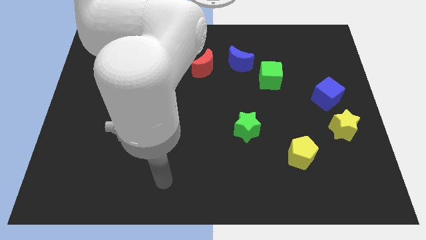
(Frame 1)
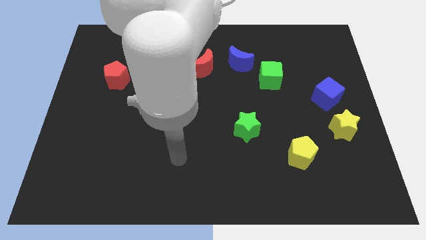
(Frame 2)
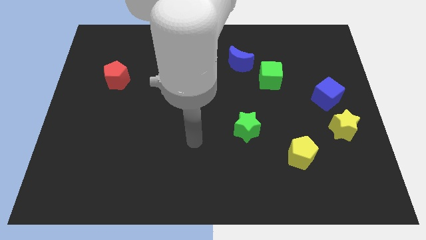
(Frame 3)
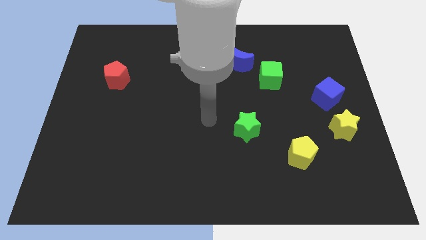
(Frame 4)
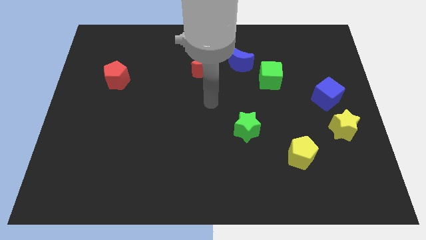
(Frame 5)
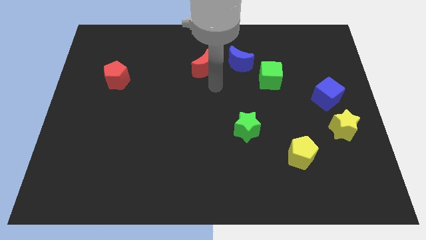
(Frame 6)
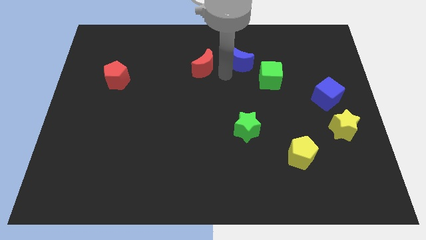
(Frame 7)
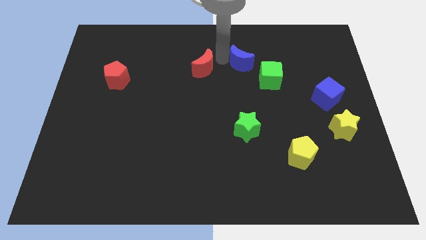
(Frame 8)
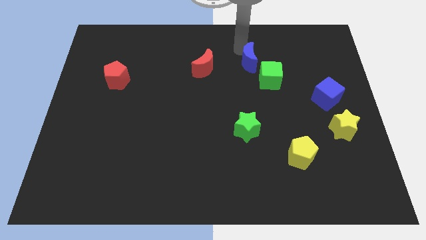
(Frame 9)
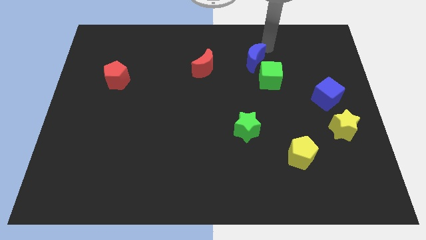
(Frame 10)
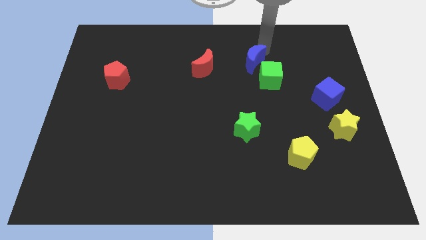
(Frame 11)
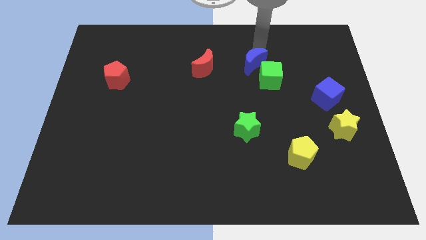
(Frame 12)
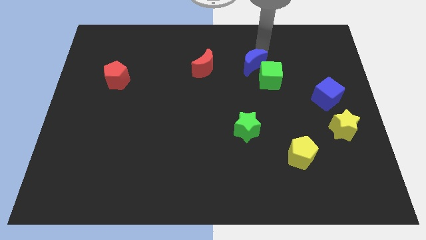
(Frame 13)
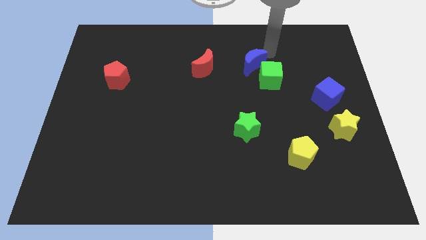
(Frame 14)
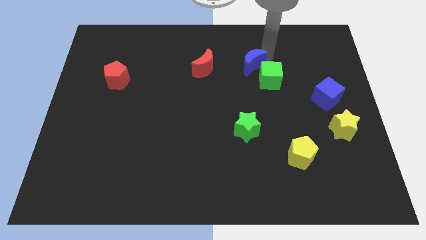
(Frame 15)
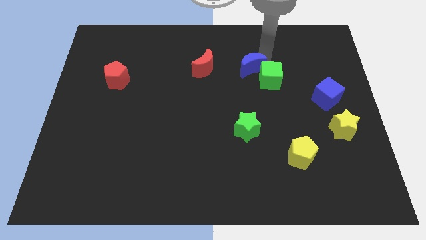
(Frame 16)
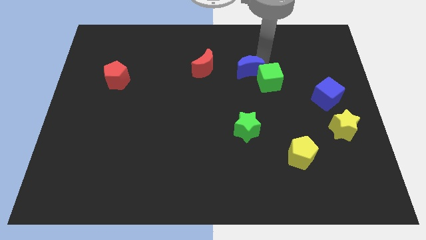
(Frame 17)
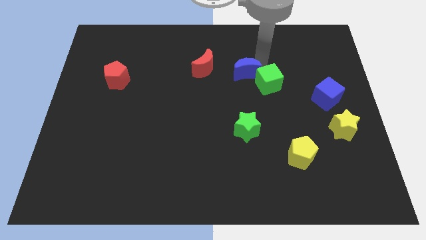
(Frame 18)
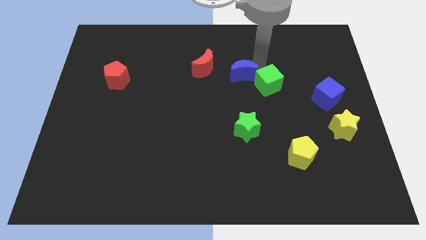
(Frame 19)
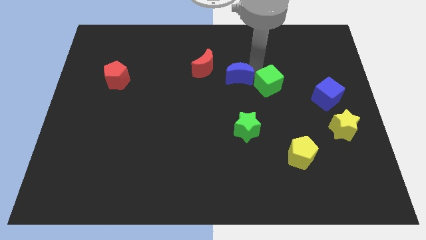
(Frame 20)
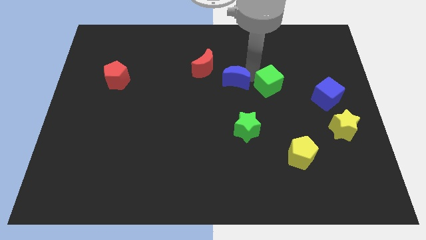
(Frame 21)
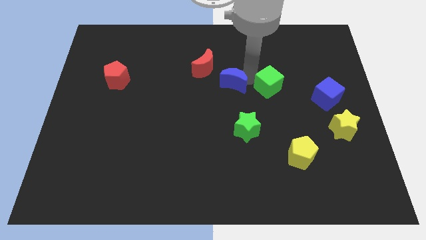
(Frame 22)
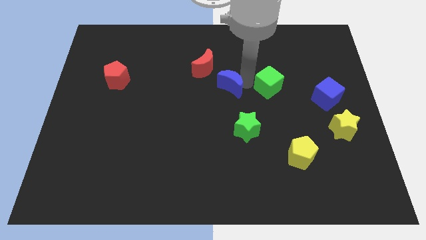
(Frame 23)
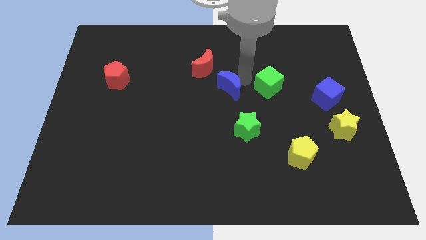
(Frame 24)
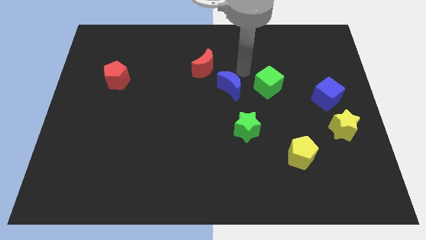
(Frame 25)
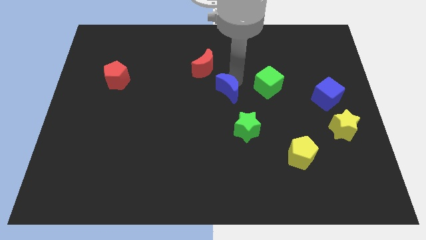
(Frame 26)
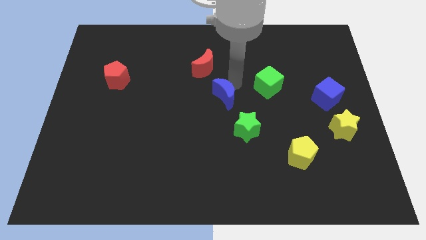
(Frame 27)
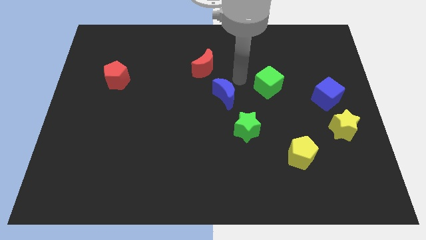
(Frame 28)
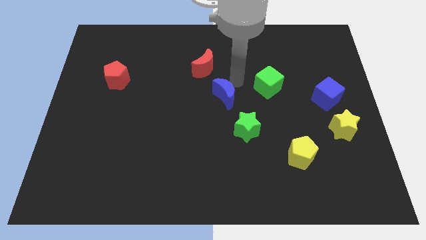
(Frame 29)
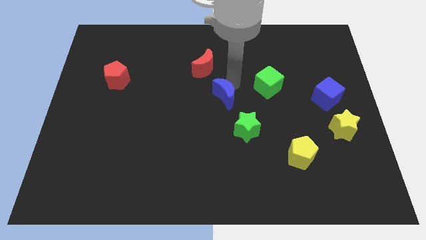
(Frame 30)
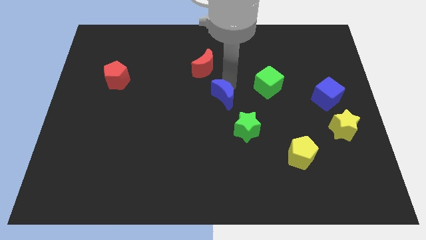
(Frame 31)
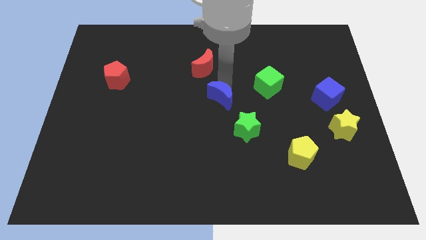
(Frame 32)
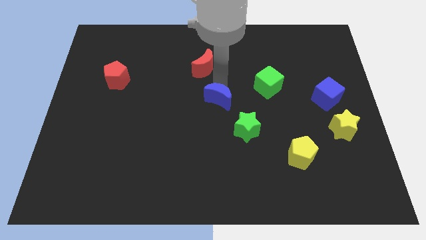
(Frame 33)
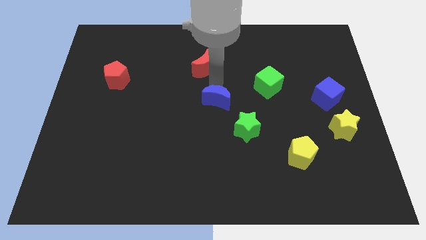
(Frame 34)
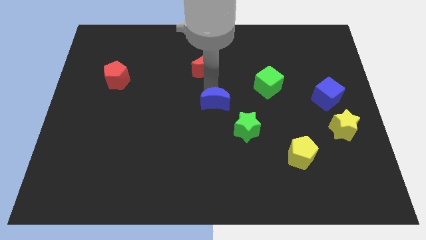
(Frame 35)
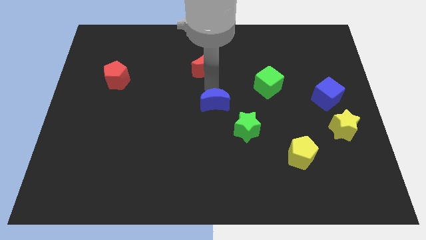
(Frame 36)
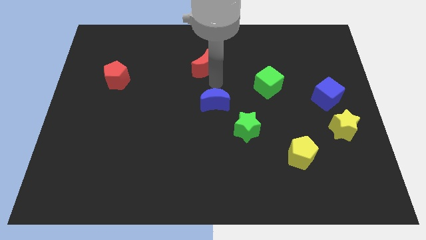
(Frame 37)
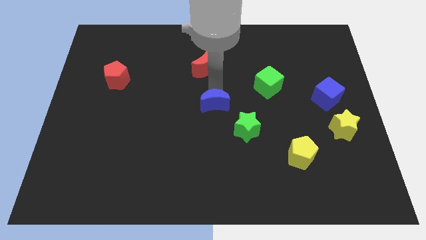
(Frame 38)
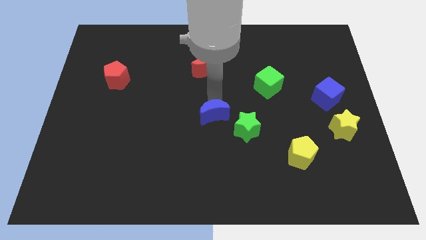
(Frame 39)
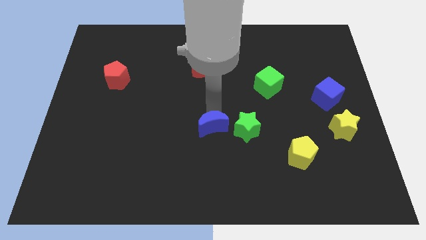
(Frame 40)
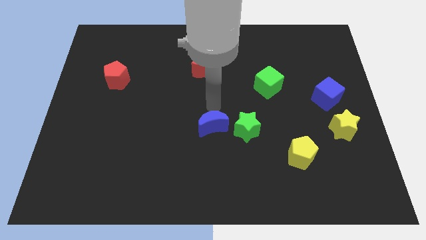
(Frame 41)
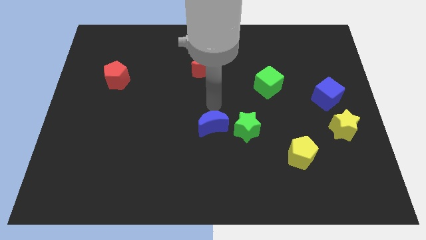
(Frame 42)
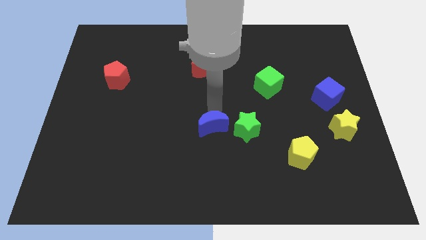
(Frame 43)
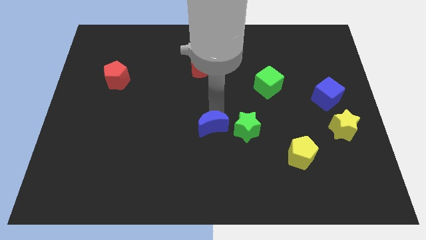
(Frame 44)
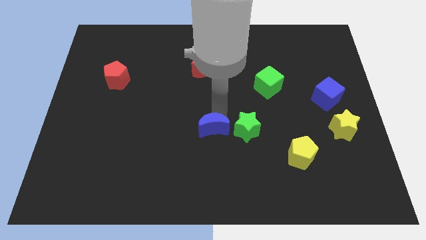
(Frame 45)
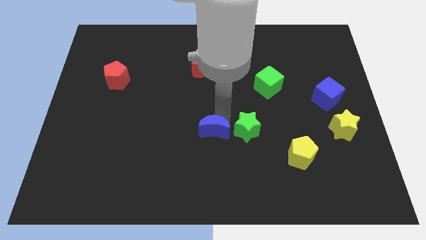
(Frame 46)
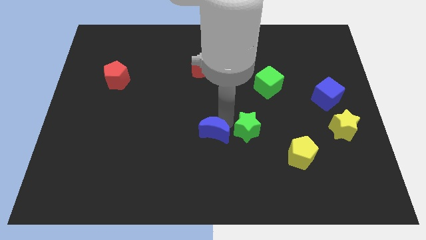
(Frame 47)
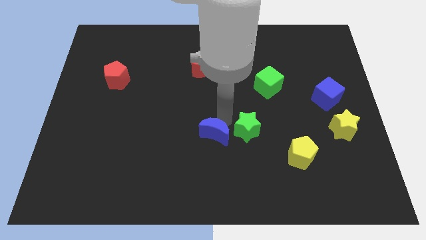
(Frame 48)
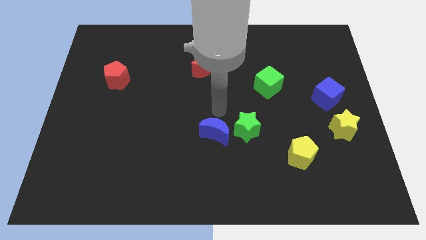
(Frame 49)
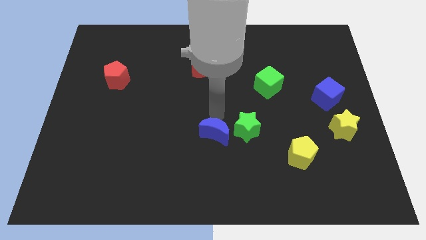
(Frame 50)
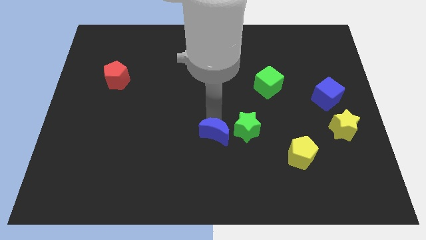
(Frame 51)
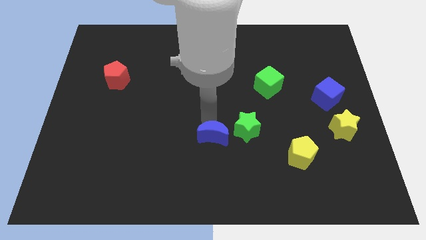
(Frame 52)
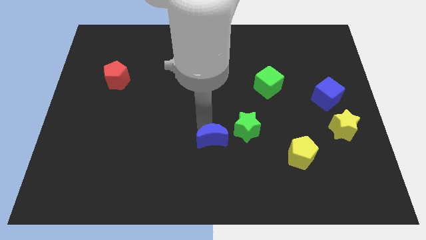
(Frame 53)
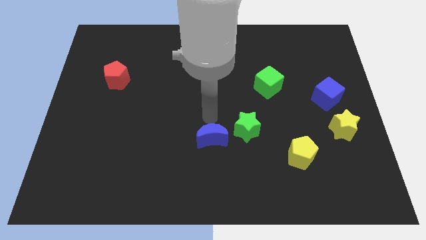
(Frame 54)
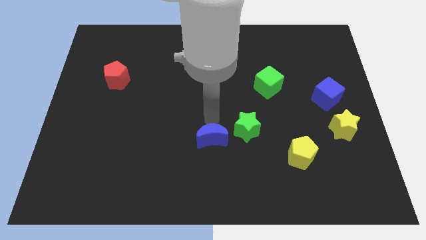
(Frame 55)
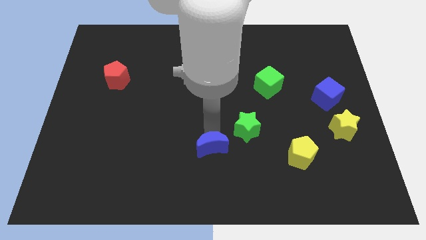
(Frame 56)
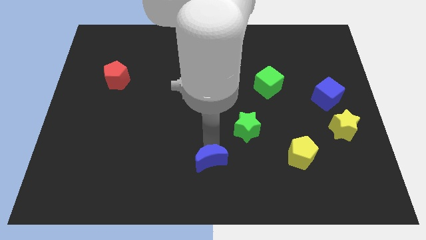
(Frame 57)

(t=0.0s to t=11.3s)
push the blue moon to the bottom

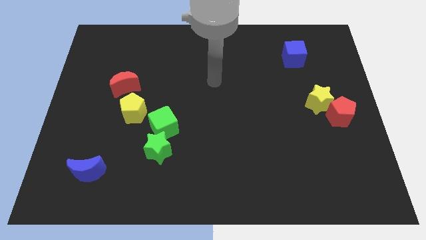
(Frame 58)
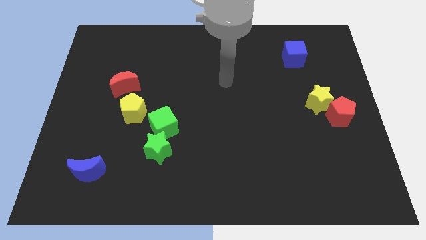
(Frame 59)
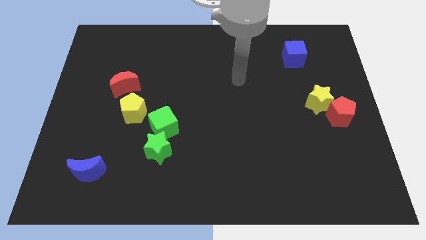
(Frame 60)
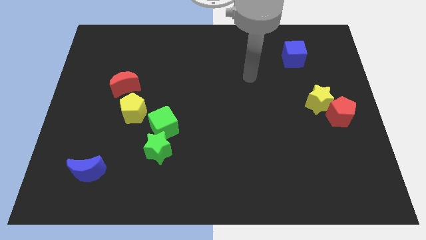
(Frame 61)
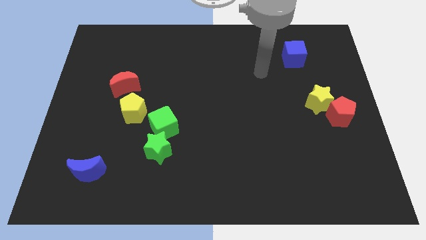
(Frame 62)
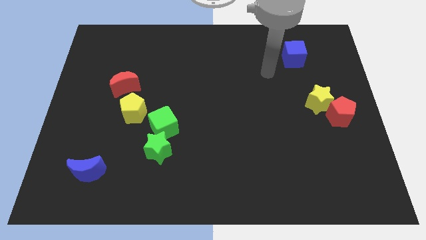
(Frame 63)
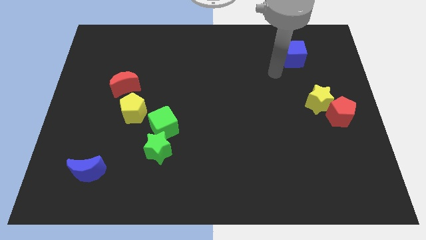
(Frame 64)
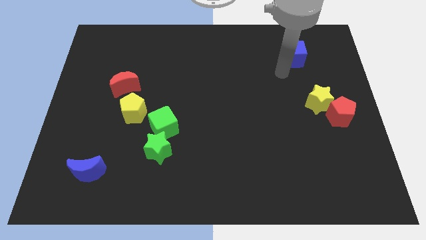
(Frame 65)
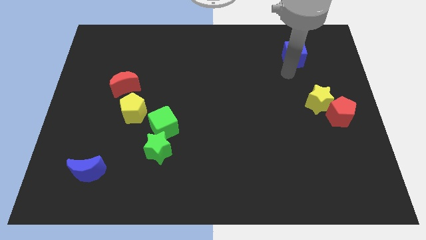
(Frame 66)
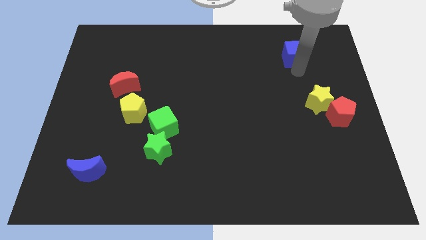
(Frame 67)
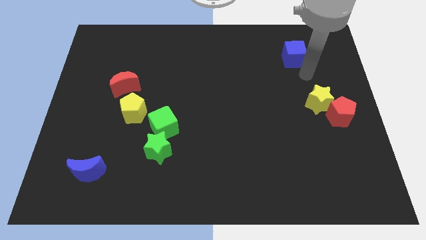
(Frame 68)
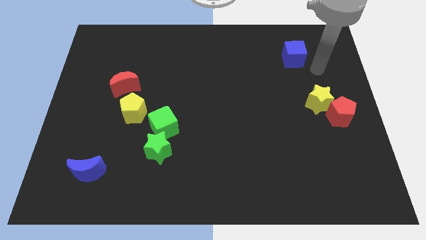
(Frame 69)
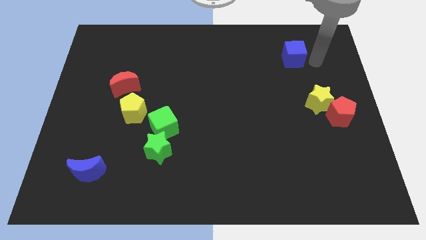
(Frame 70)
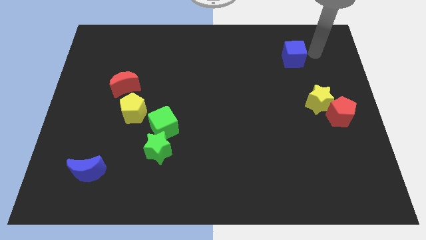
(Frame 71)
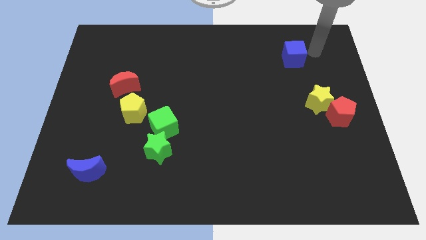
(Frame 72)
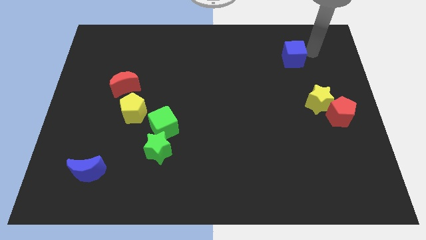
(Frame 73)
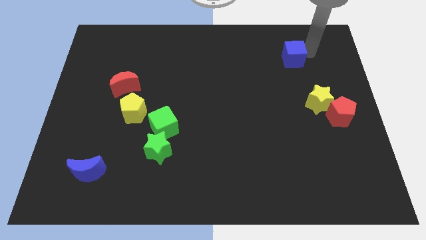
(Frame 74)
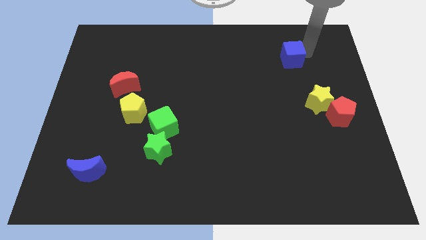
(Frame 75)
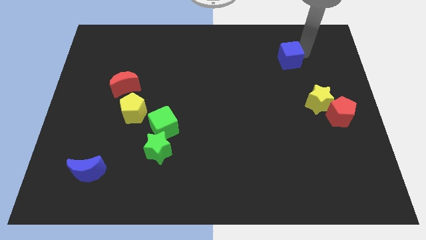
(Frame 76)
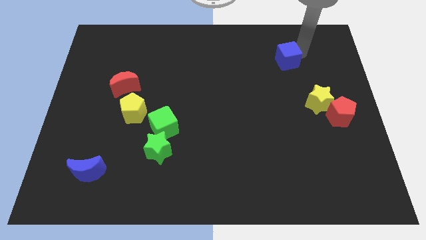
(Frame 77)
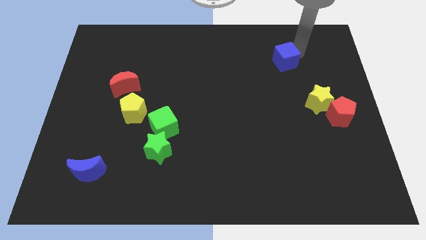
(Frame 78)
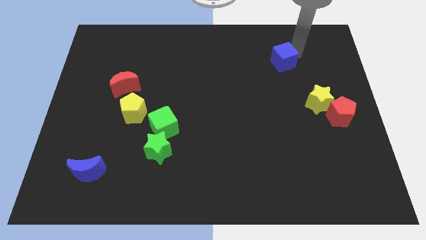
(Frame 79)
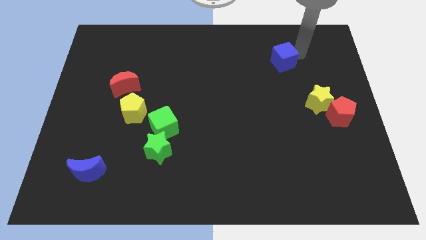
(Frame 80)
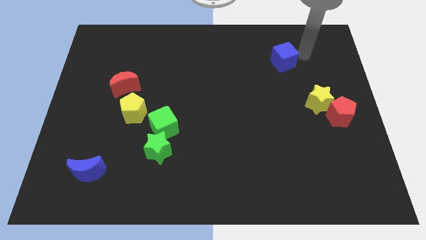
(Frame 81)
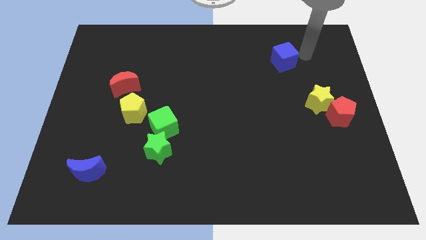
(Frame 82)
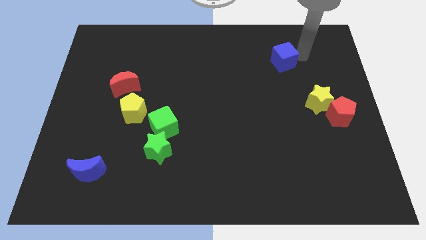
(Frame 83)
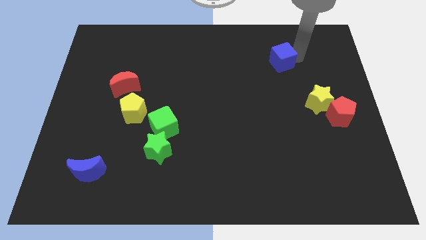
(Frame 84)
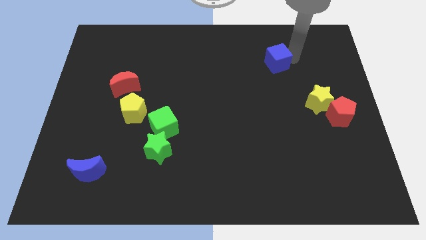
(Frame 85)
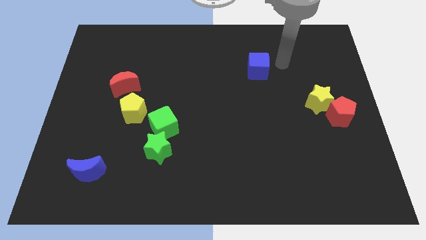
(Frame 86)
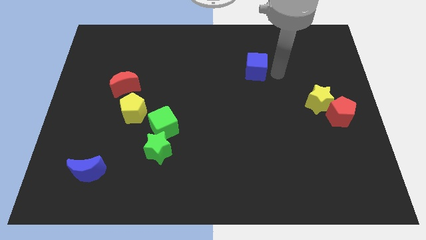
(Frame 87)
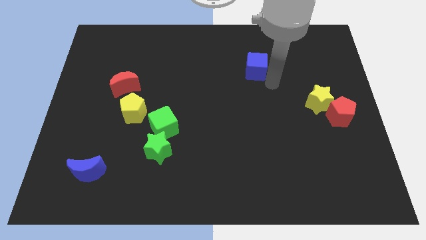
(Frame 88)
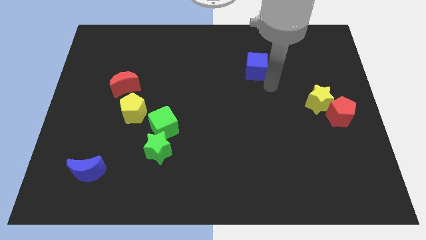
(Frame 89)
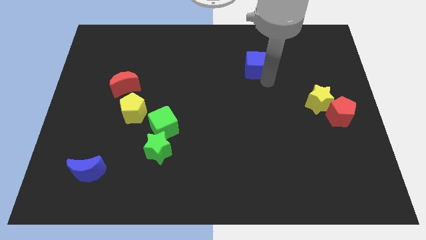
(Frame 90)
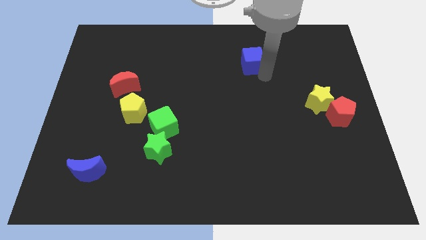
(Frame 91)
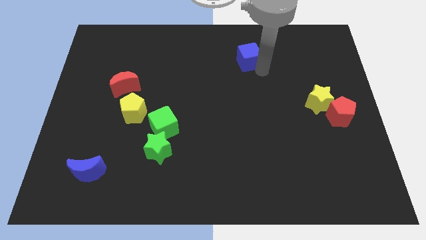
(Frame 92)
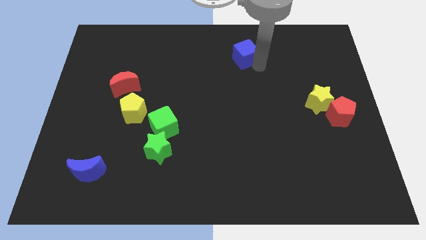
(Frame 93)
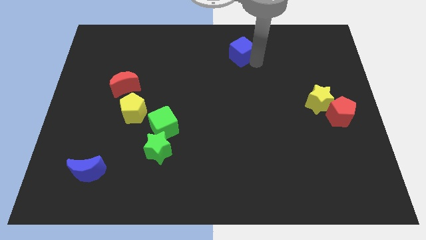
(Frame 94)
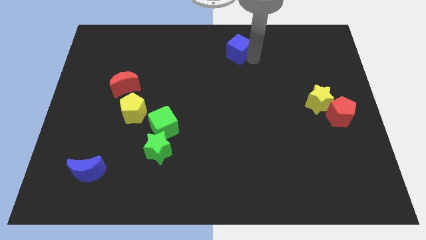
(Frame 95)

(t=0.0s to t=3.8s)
slide the blue cube to the towards your base
